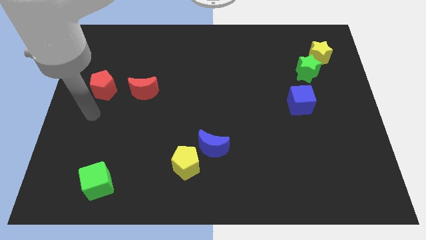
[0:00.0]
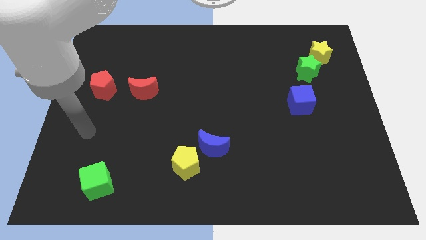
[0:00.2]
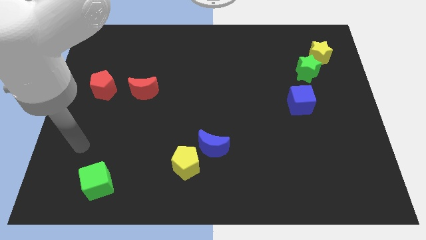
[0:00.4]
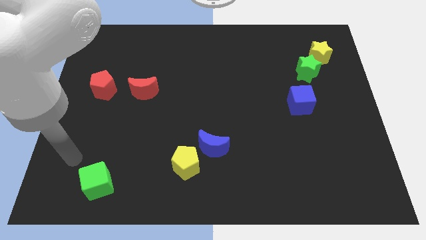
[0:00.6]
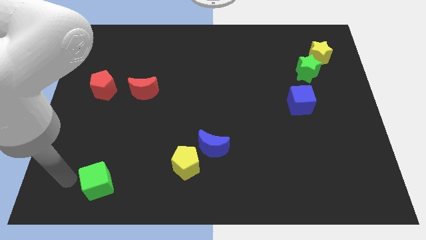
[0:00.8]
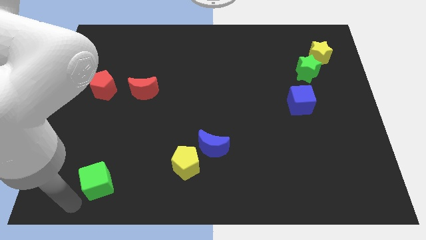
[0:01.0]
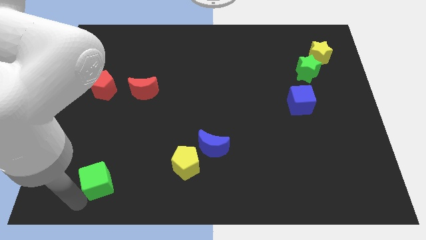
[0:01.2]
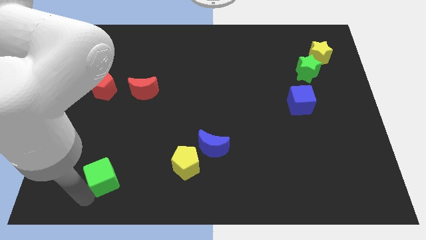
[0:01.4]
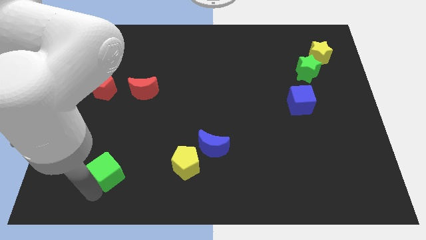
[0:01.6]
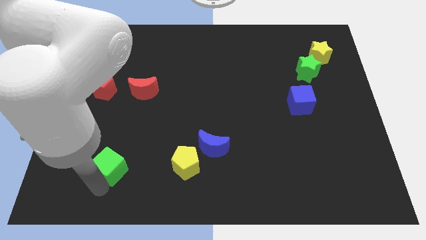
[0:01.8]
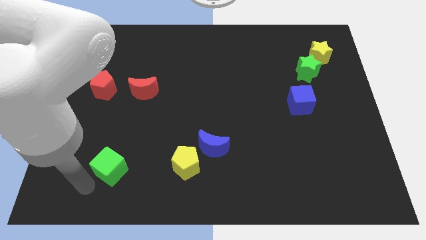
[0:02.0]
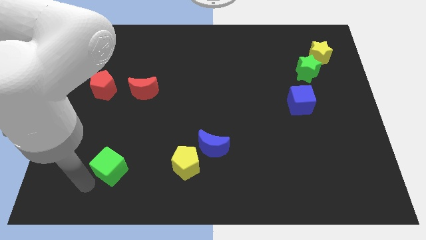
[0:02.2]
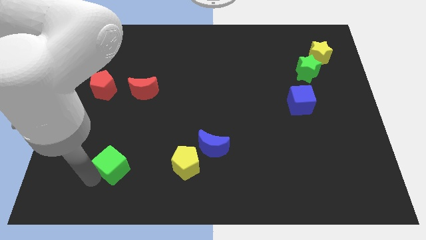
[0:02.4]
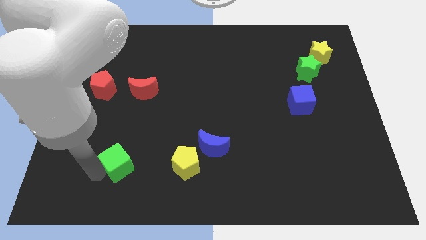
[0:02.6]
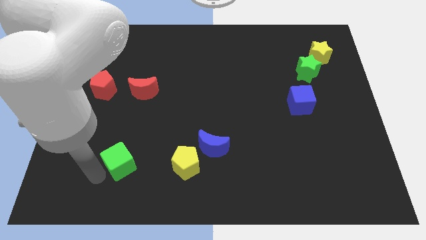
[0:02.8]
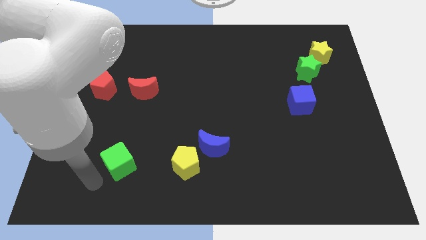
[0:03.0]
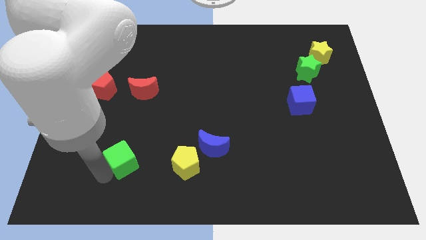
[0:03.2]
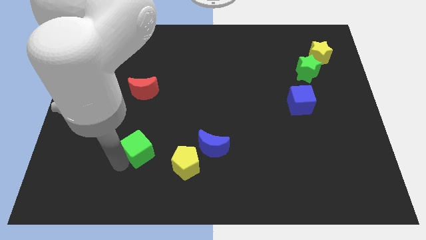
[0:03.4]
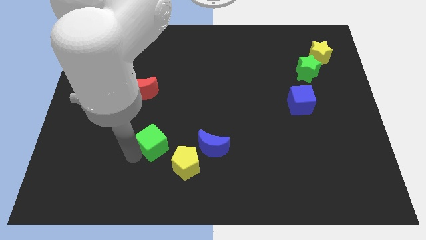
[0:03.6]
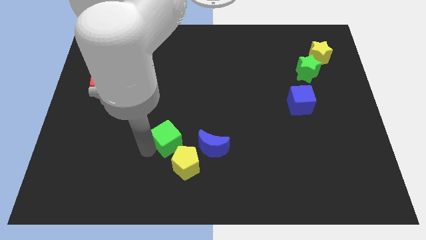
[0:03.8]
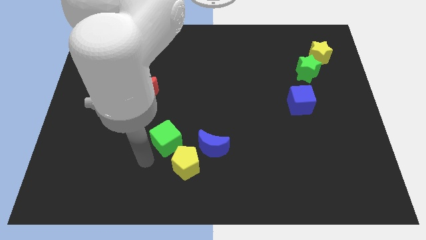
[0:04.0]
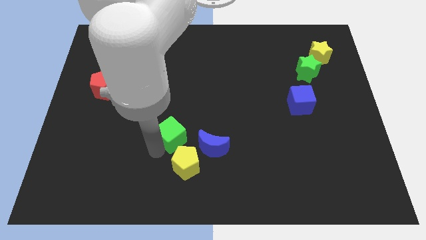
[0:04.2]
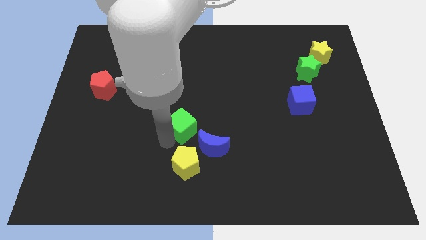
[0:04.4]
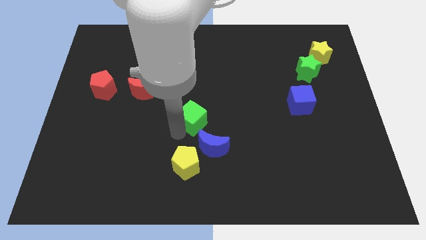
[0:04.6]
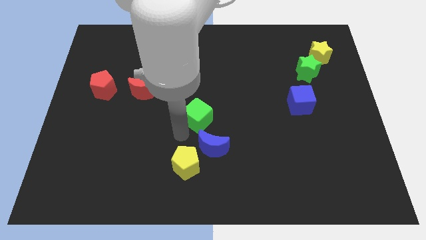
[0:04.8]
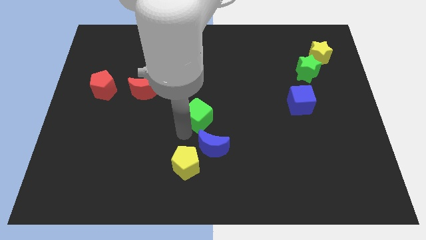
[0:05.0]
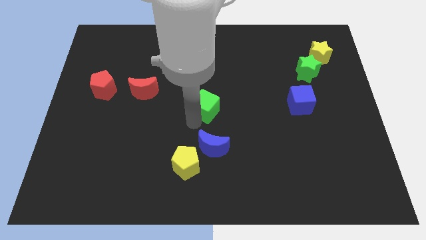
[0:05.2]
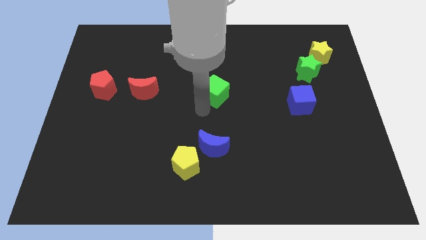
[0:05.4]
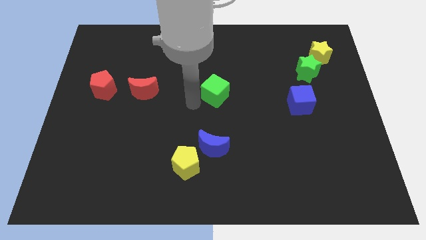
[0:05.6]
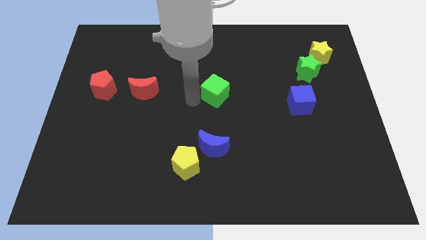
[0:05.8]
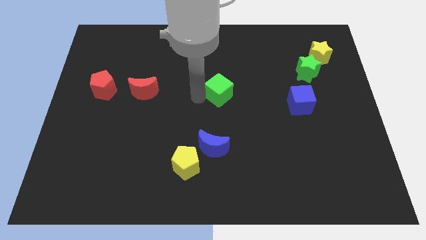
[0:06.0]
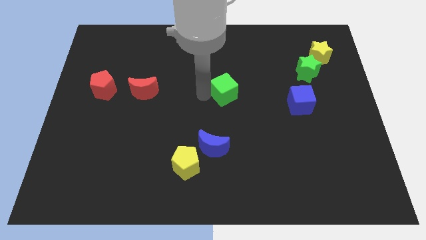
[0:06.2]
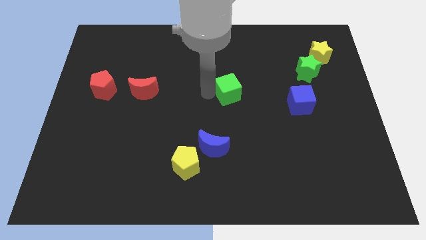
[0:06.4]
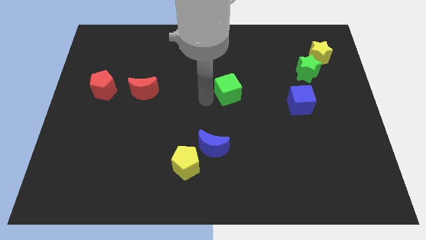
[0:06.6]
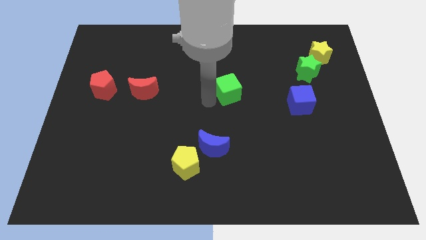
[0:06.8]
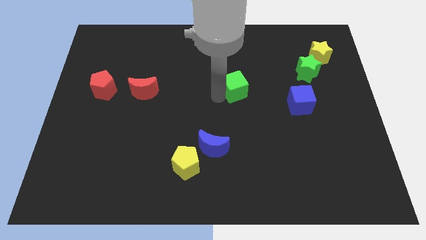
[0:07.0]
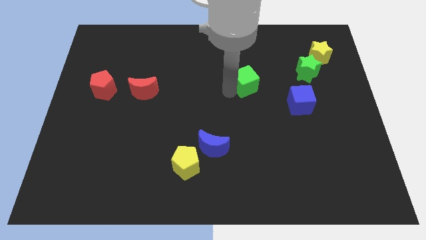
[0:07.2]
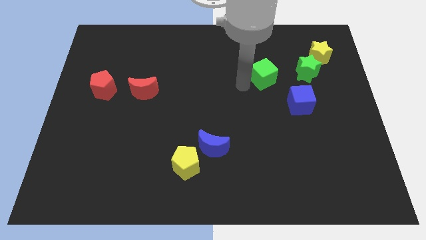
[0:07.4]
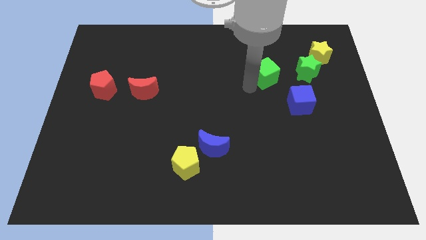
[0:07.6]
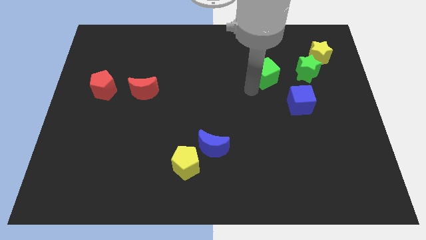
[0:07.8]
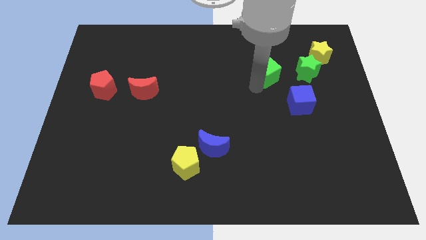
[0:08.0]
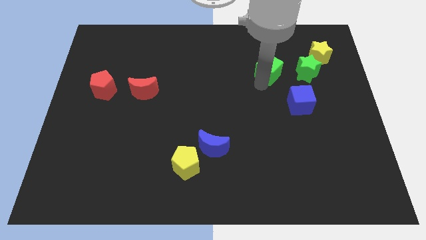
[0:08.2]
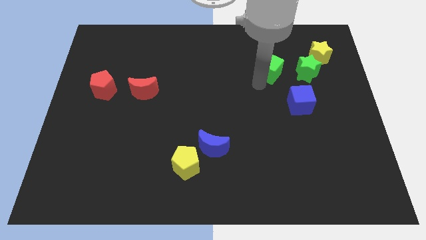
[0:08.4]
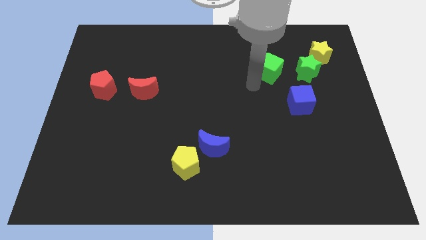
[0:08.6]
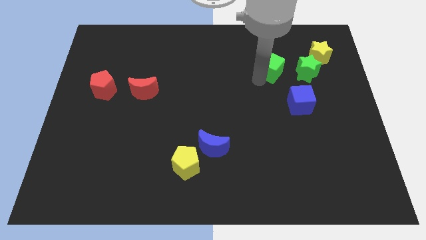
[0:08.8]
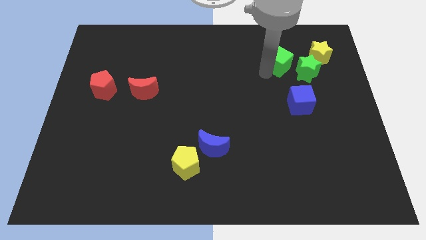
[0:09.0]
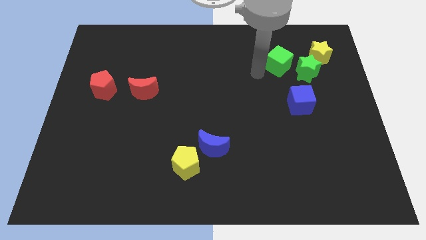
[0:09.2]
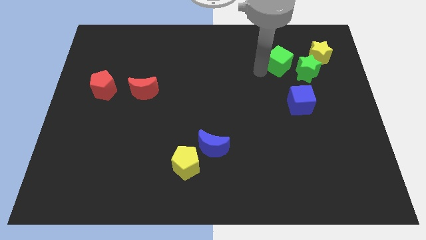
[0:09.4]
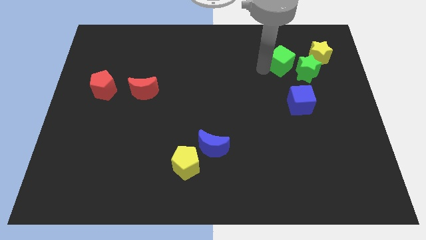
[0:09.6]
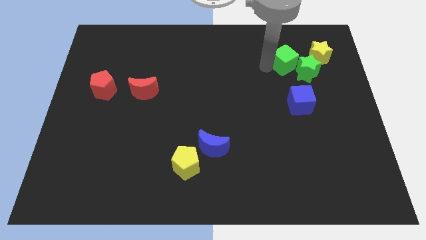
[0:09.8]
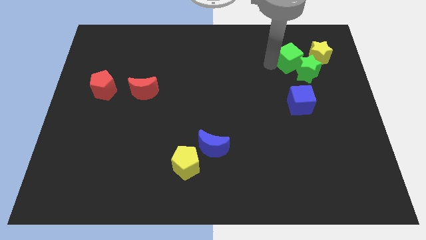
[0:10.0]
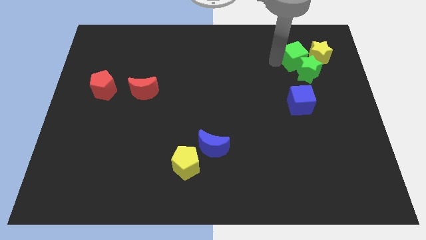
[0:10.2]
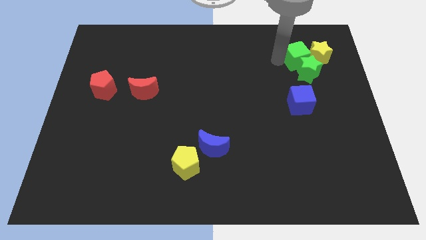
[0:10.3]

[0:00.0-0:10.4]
put the green cube towards the yellow star

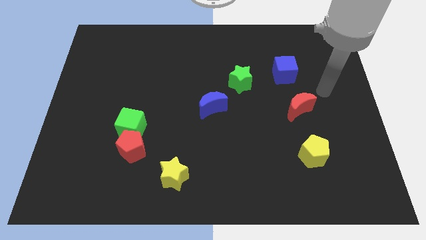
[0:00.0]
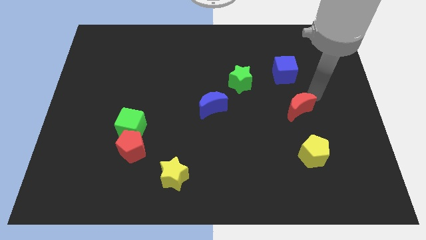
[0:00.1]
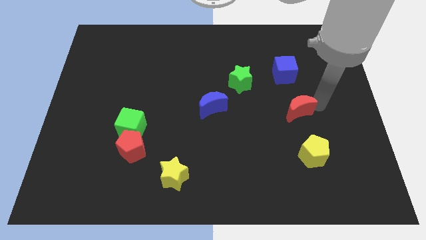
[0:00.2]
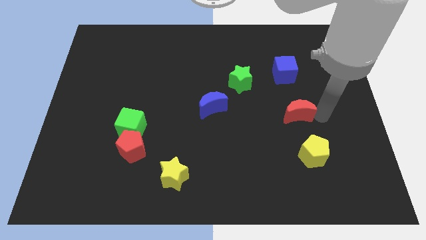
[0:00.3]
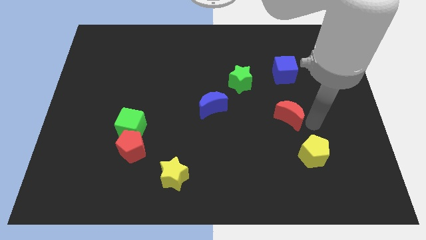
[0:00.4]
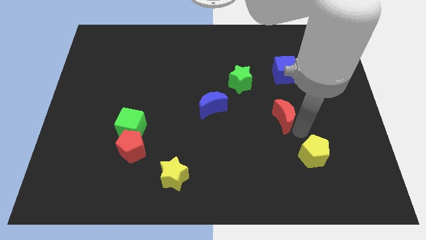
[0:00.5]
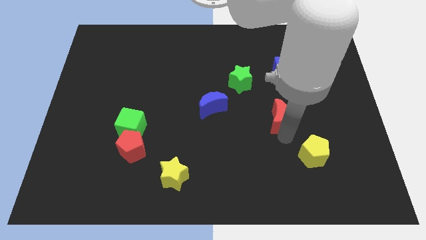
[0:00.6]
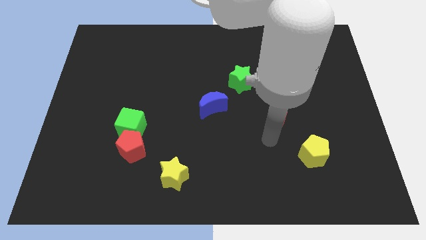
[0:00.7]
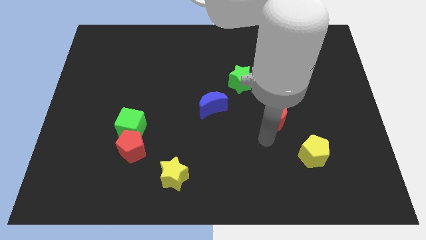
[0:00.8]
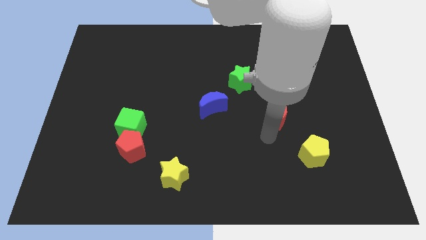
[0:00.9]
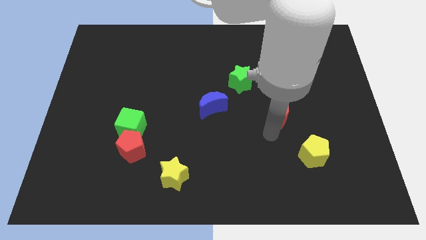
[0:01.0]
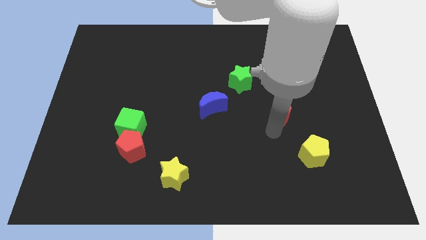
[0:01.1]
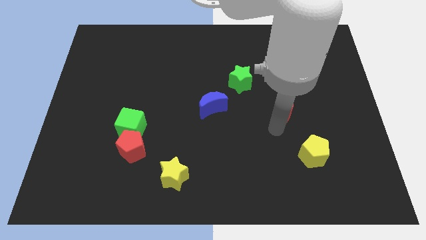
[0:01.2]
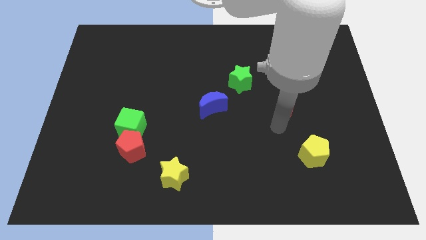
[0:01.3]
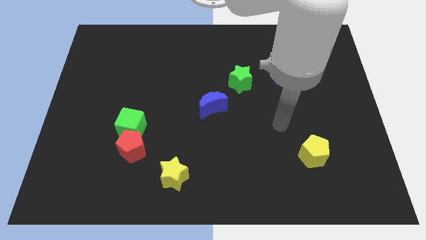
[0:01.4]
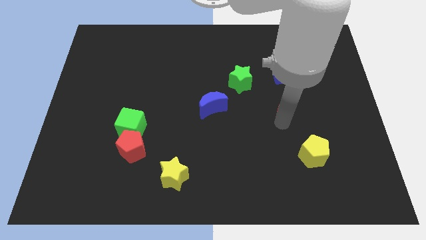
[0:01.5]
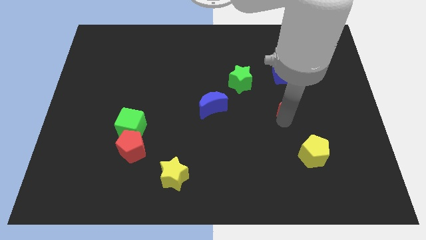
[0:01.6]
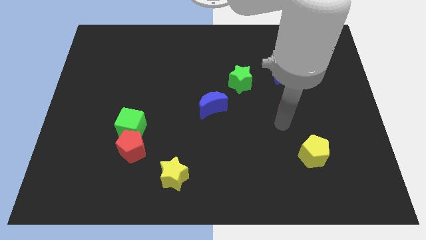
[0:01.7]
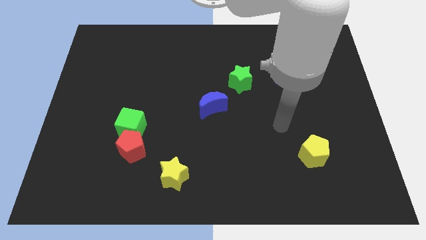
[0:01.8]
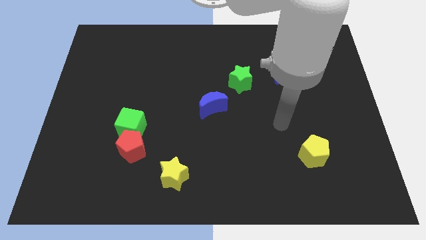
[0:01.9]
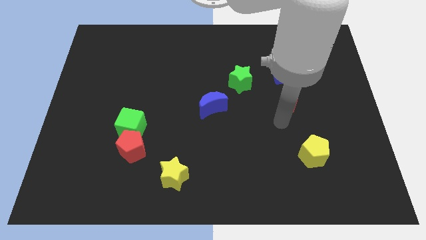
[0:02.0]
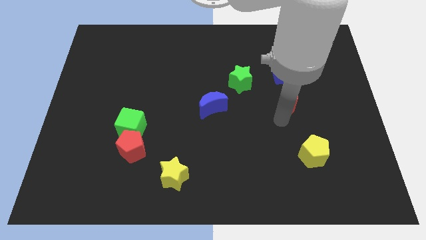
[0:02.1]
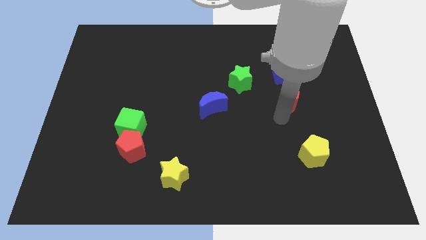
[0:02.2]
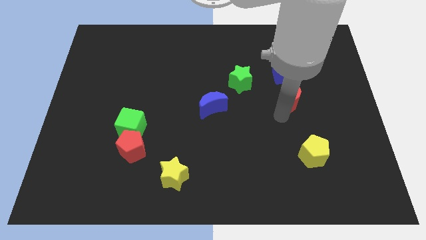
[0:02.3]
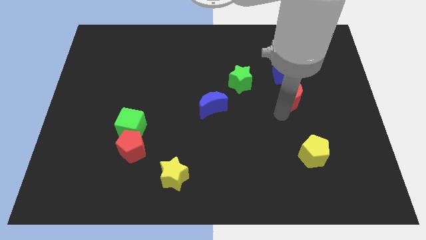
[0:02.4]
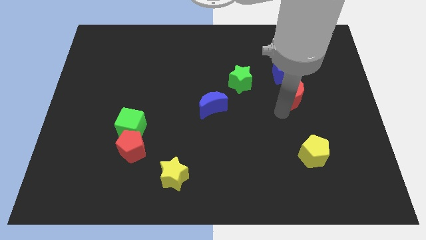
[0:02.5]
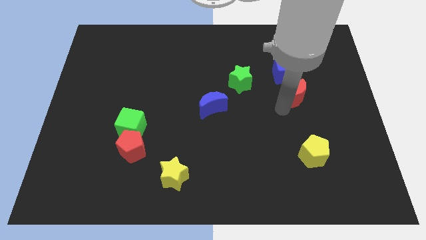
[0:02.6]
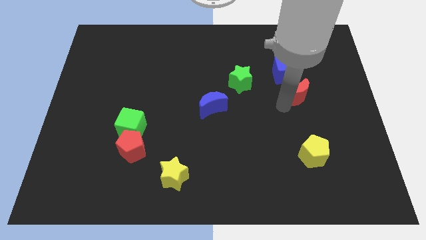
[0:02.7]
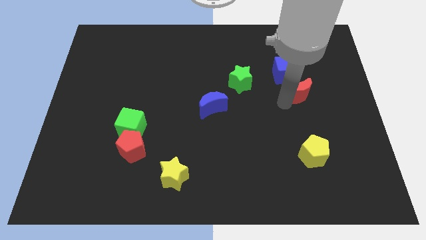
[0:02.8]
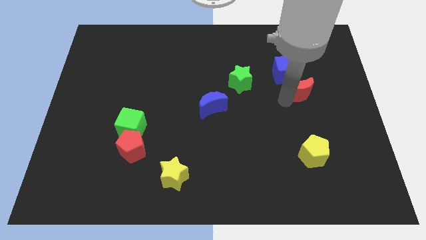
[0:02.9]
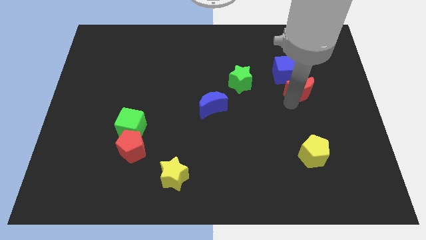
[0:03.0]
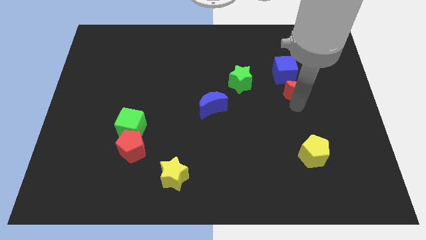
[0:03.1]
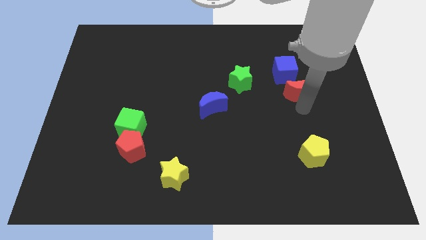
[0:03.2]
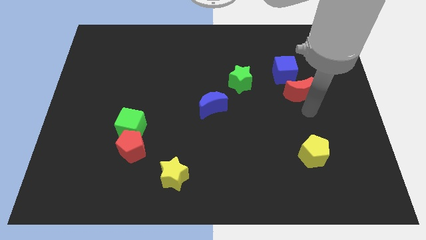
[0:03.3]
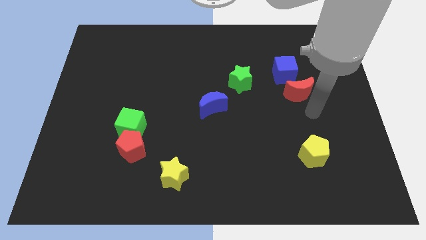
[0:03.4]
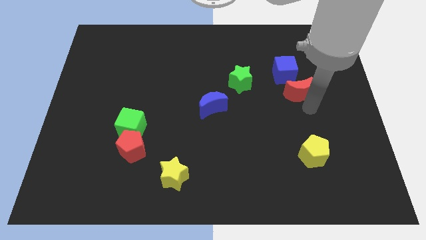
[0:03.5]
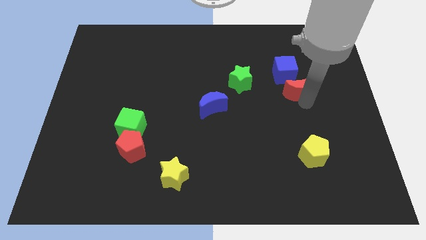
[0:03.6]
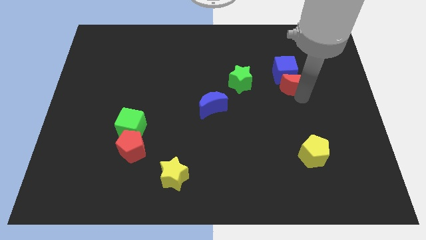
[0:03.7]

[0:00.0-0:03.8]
put the red moon towards the blue cube
